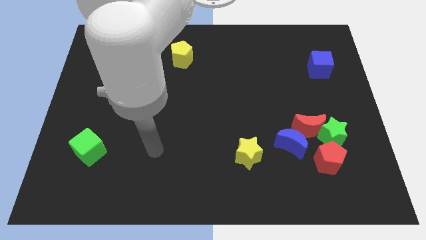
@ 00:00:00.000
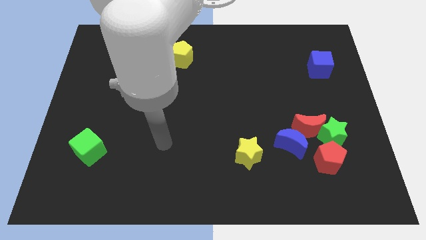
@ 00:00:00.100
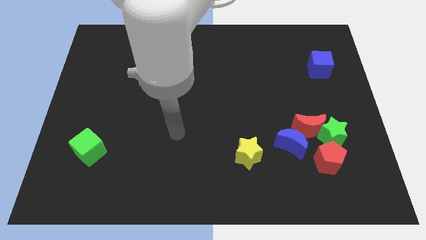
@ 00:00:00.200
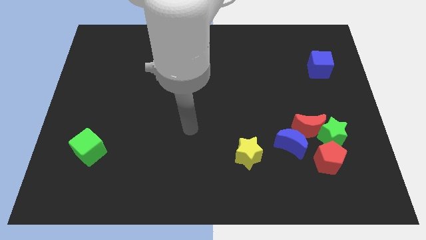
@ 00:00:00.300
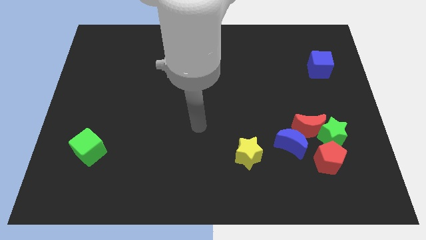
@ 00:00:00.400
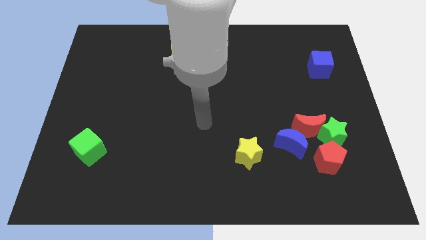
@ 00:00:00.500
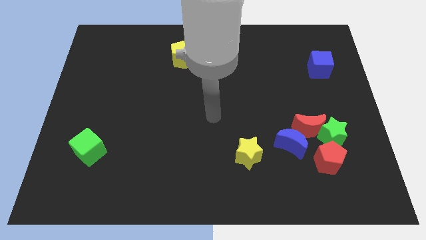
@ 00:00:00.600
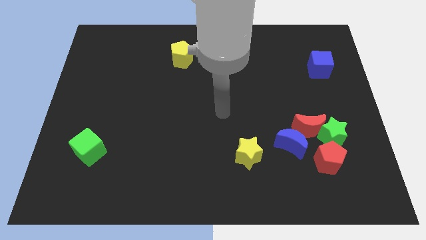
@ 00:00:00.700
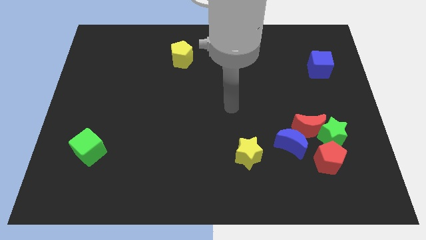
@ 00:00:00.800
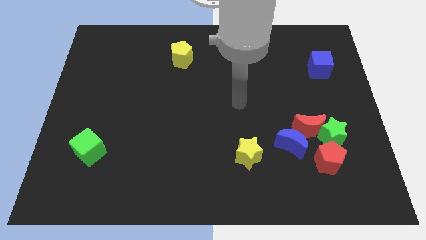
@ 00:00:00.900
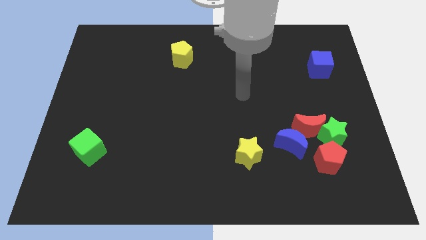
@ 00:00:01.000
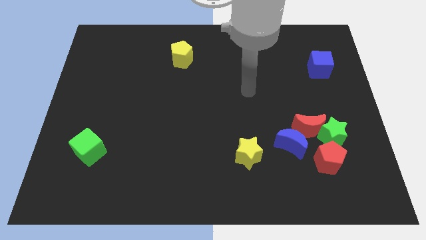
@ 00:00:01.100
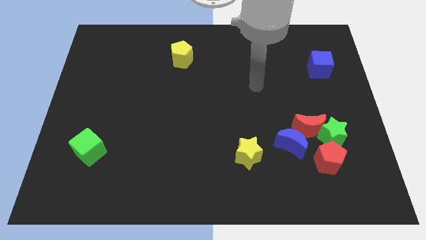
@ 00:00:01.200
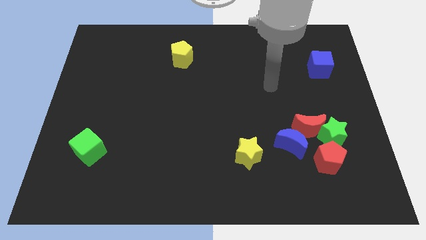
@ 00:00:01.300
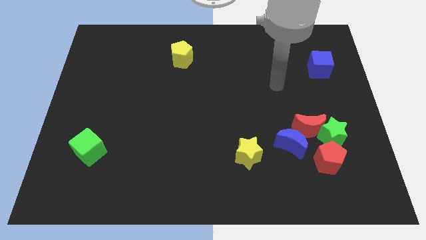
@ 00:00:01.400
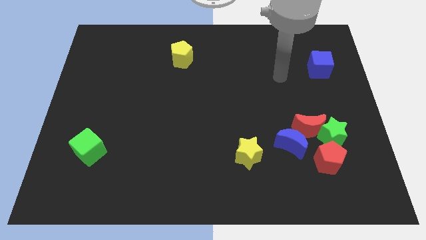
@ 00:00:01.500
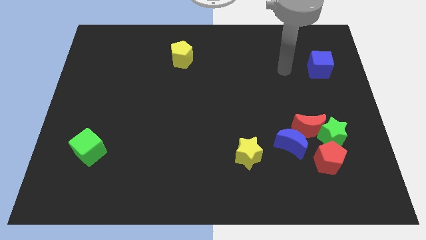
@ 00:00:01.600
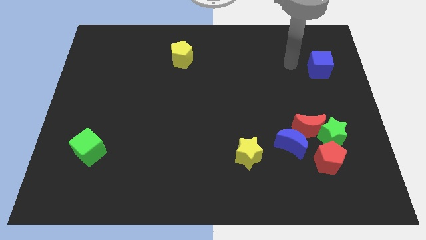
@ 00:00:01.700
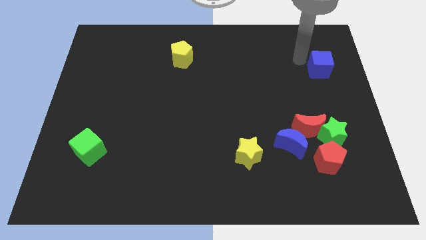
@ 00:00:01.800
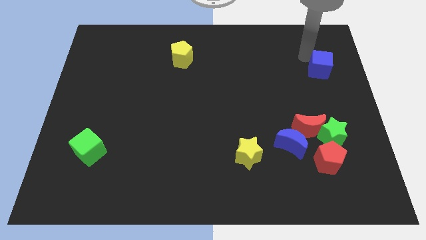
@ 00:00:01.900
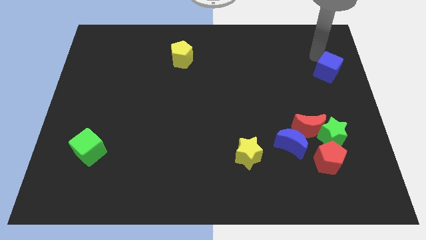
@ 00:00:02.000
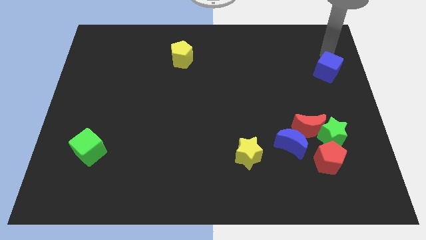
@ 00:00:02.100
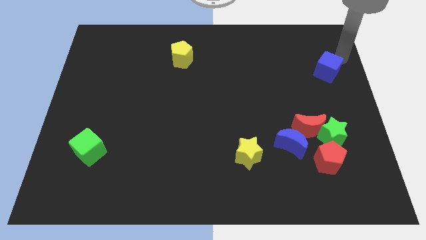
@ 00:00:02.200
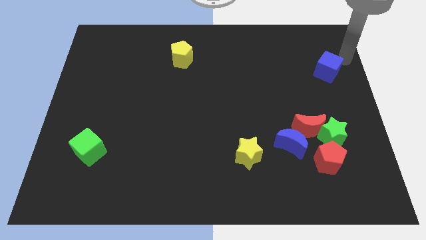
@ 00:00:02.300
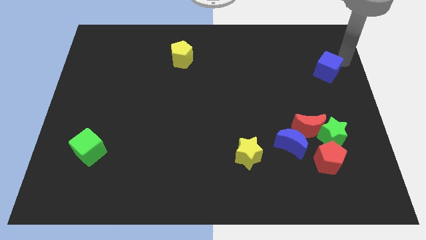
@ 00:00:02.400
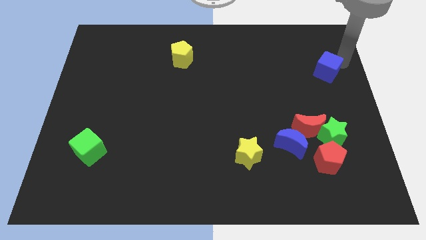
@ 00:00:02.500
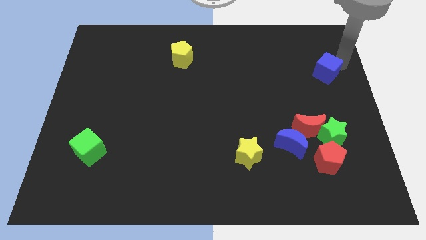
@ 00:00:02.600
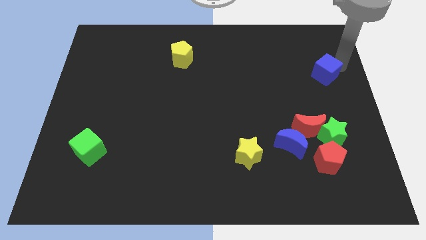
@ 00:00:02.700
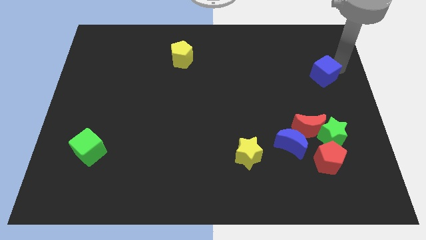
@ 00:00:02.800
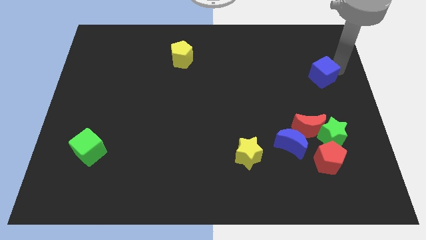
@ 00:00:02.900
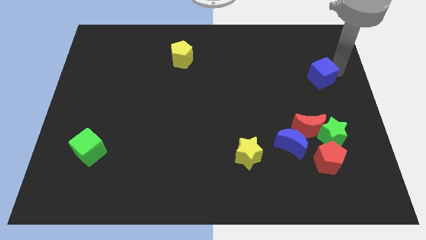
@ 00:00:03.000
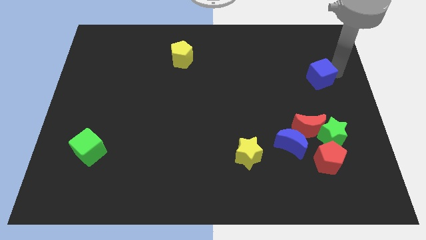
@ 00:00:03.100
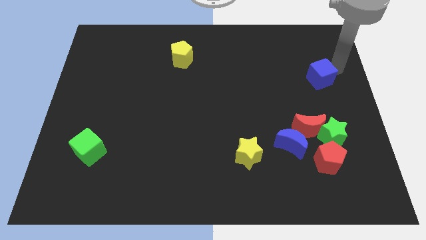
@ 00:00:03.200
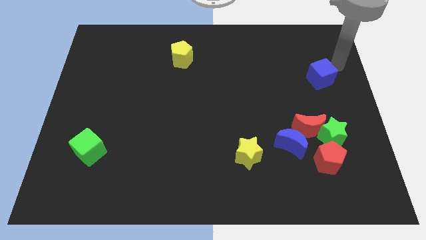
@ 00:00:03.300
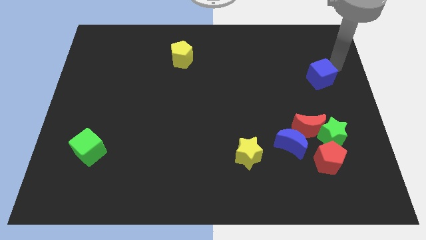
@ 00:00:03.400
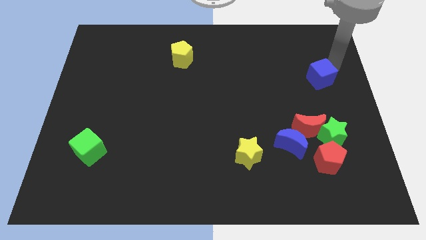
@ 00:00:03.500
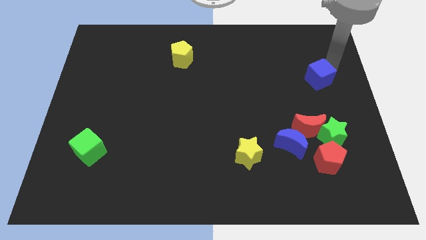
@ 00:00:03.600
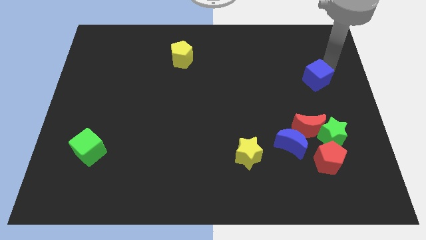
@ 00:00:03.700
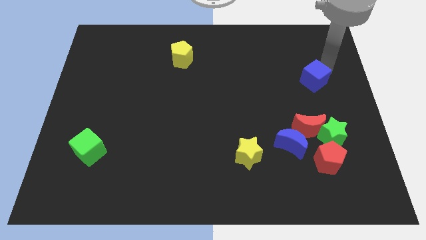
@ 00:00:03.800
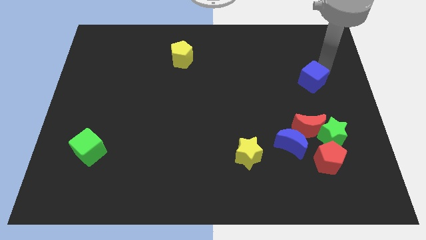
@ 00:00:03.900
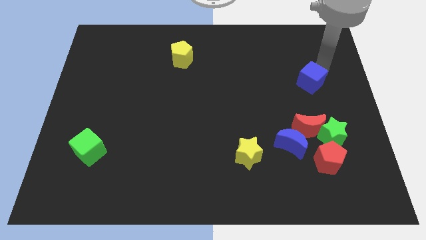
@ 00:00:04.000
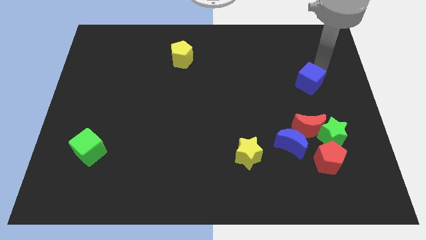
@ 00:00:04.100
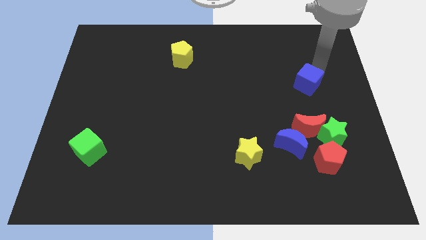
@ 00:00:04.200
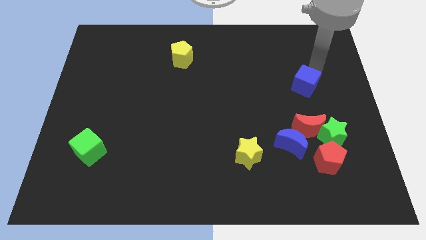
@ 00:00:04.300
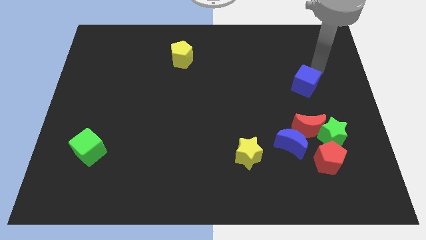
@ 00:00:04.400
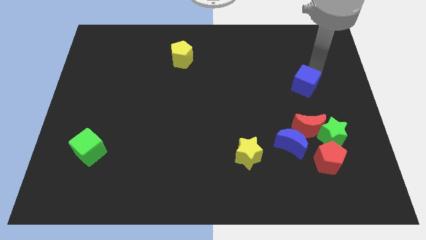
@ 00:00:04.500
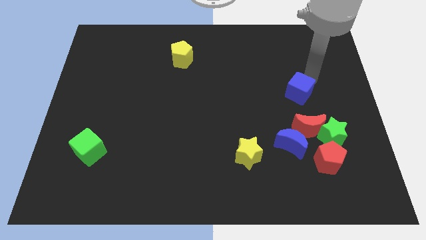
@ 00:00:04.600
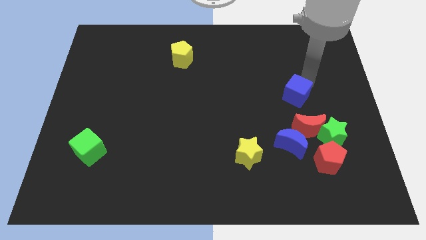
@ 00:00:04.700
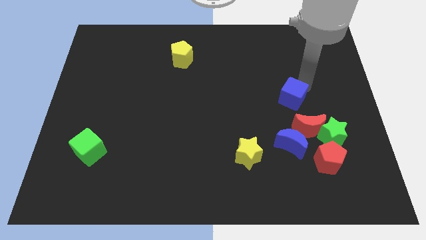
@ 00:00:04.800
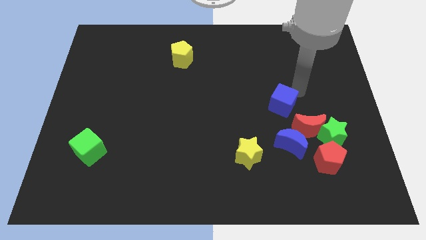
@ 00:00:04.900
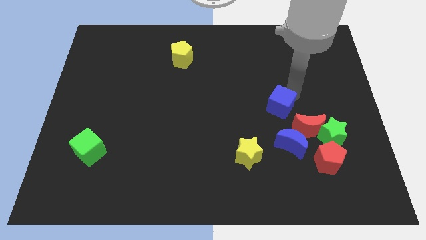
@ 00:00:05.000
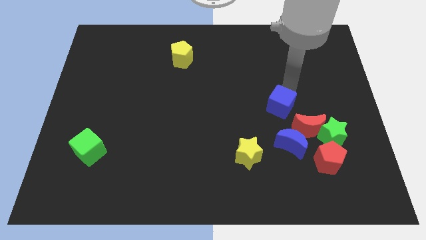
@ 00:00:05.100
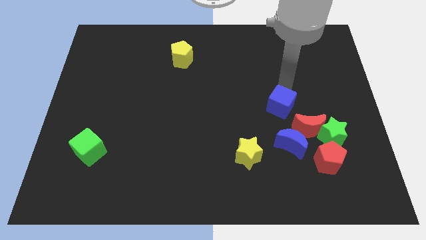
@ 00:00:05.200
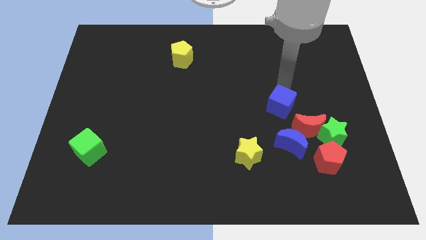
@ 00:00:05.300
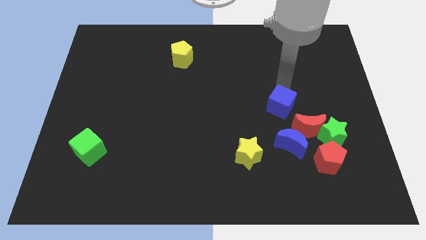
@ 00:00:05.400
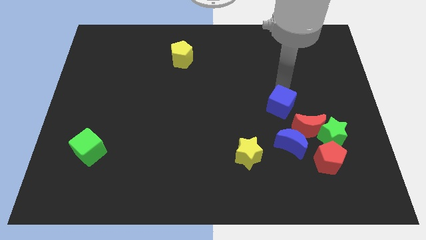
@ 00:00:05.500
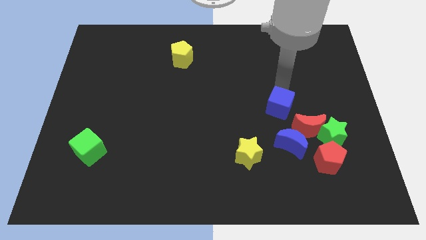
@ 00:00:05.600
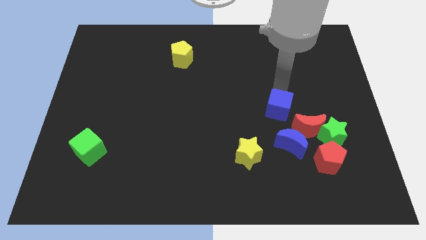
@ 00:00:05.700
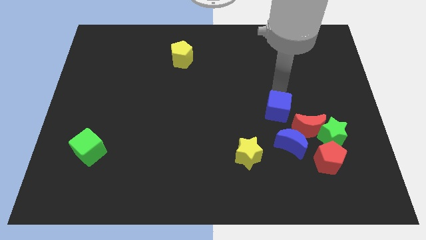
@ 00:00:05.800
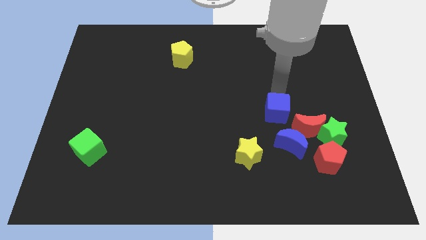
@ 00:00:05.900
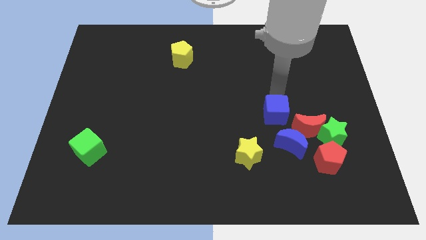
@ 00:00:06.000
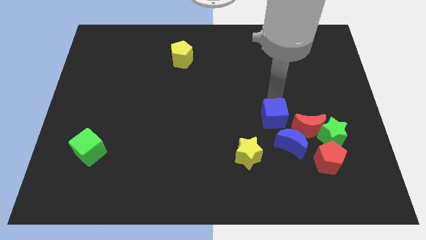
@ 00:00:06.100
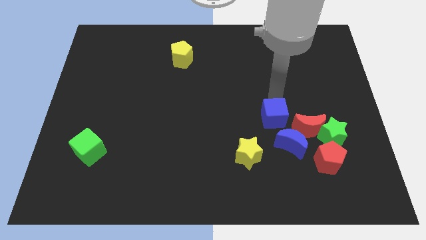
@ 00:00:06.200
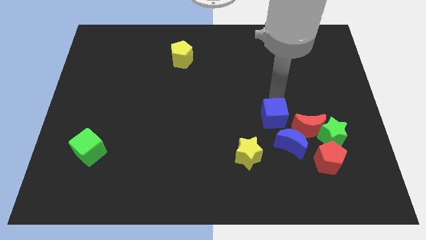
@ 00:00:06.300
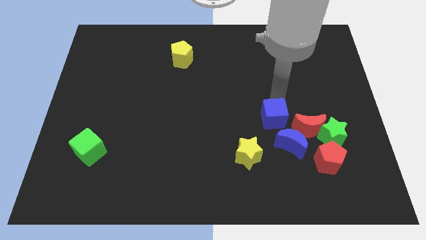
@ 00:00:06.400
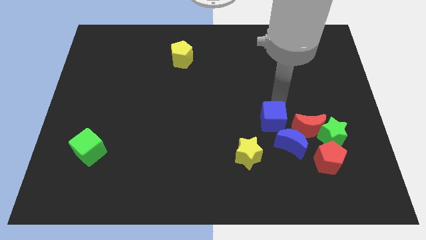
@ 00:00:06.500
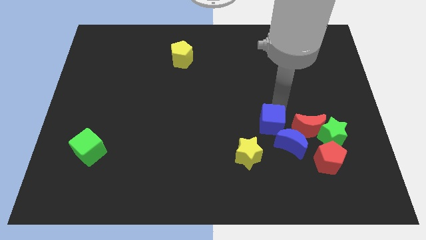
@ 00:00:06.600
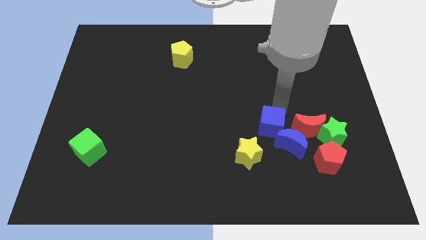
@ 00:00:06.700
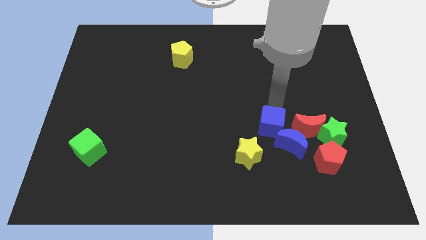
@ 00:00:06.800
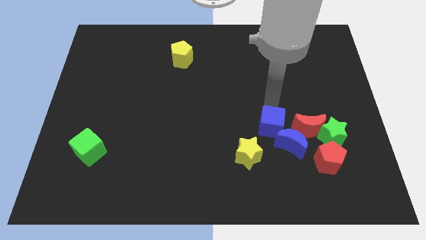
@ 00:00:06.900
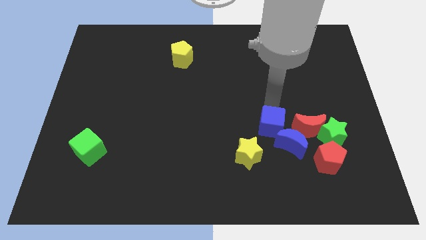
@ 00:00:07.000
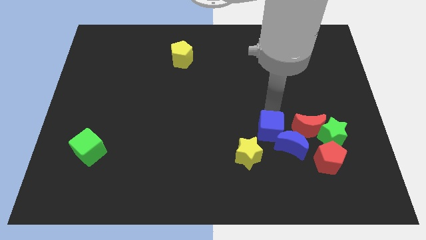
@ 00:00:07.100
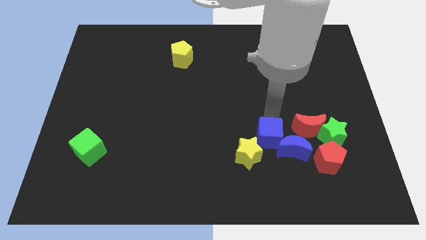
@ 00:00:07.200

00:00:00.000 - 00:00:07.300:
push the blue cube right of the yellow star

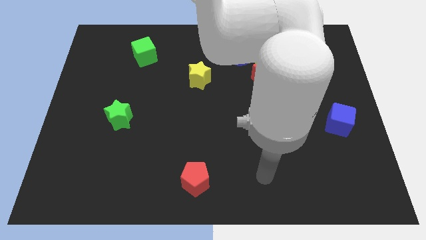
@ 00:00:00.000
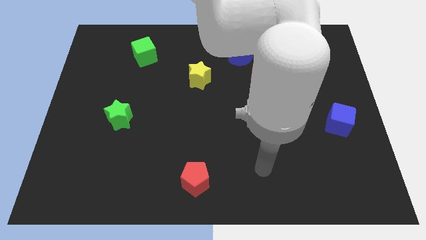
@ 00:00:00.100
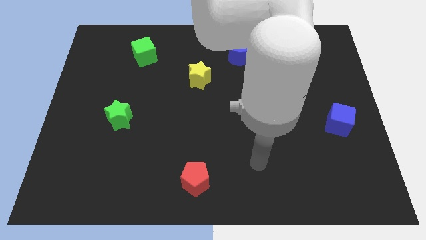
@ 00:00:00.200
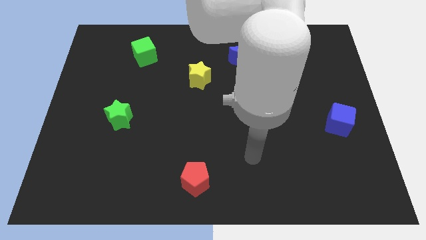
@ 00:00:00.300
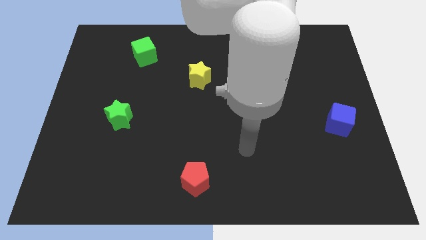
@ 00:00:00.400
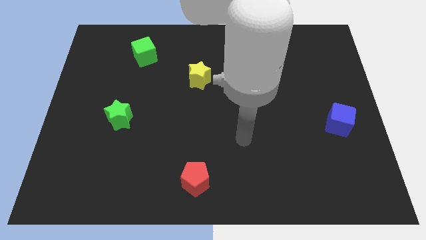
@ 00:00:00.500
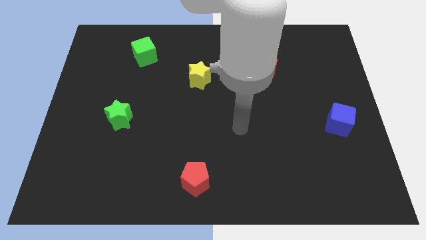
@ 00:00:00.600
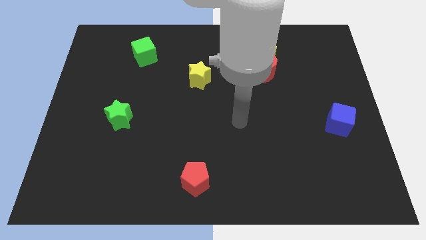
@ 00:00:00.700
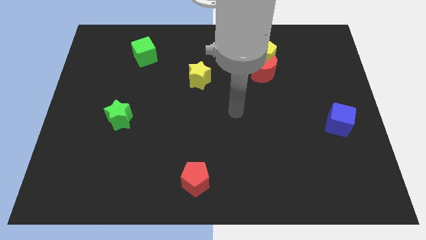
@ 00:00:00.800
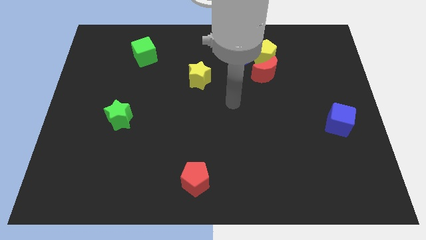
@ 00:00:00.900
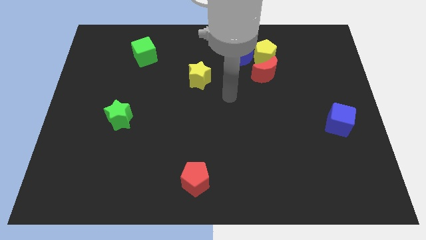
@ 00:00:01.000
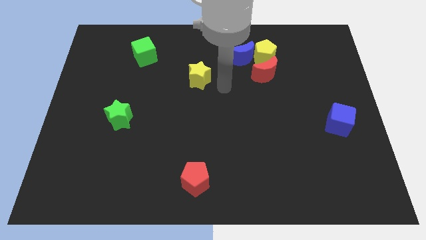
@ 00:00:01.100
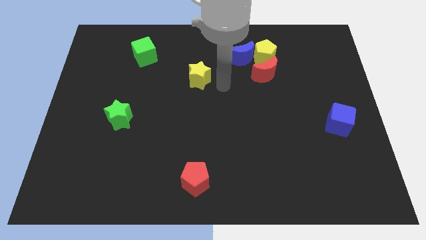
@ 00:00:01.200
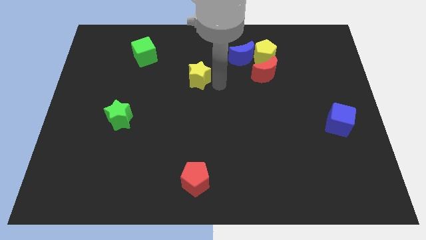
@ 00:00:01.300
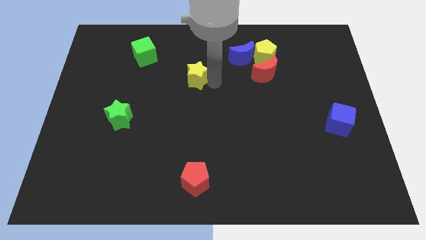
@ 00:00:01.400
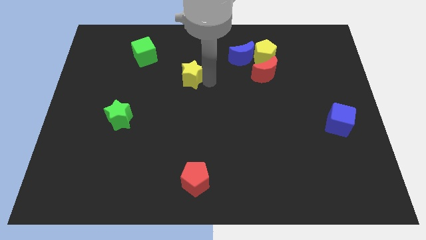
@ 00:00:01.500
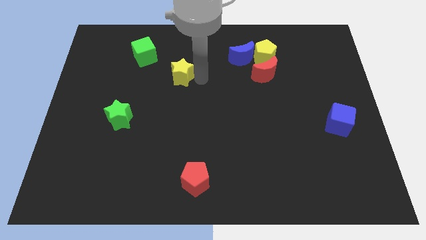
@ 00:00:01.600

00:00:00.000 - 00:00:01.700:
move the yellow star diagonally down and to the right of the green cube
